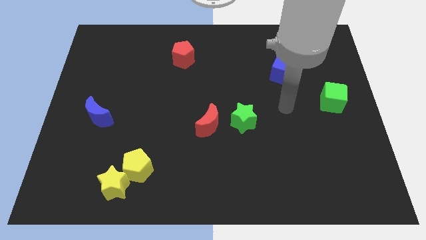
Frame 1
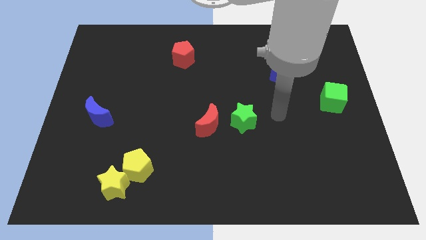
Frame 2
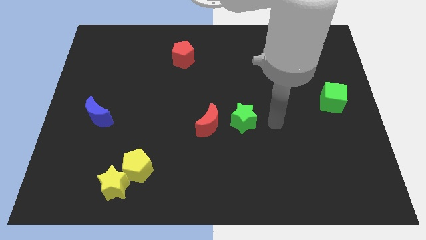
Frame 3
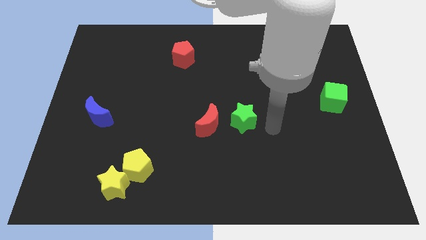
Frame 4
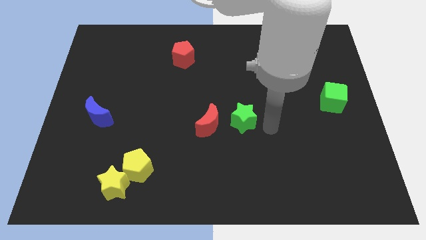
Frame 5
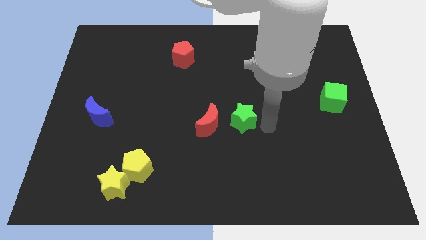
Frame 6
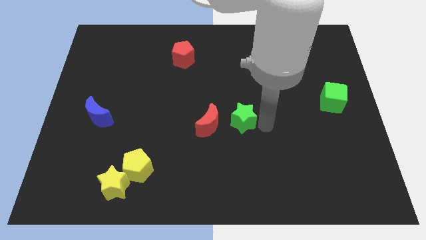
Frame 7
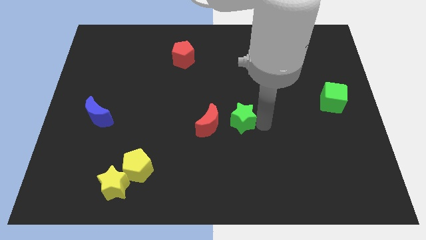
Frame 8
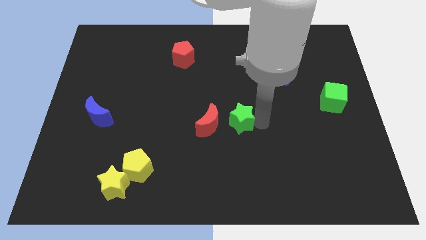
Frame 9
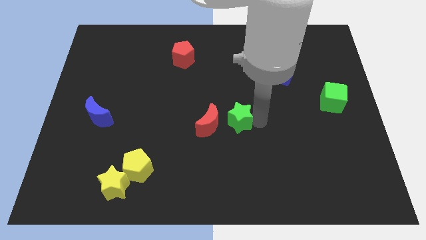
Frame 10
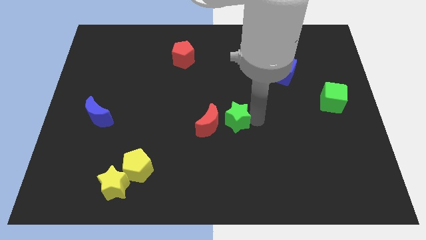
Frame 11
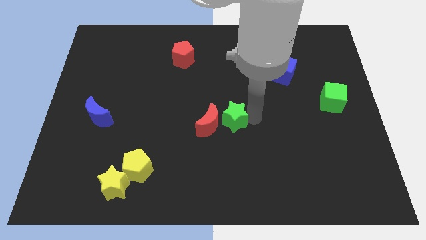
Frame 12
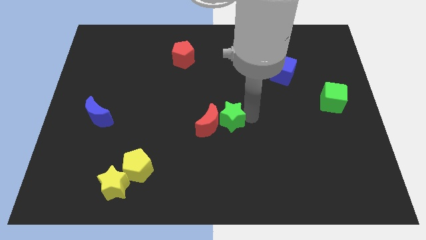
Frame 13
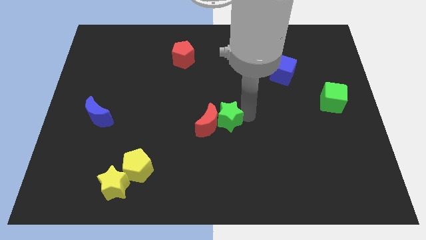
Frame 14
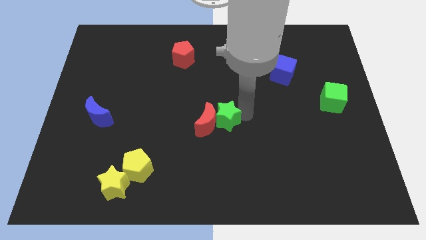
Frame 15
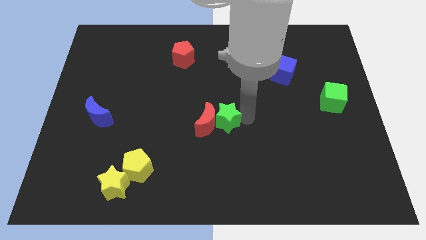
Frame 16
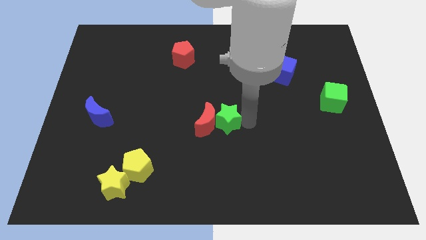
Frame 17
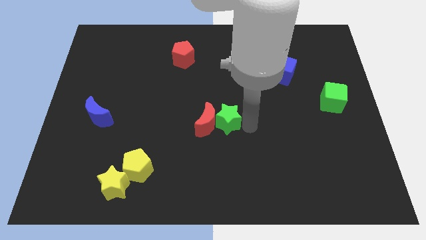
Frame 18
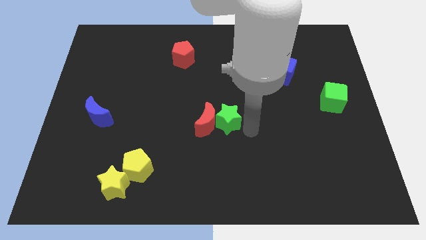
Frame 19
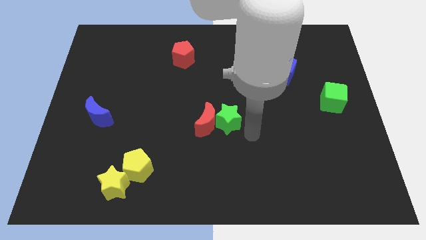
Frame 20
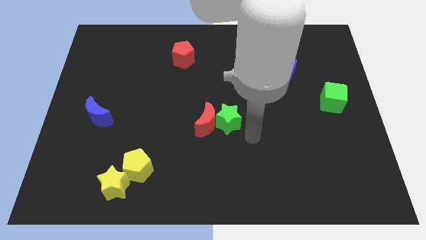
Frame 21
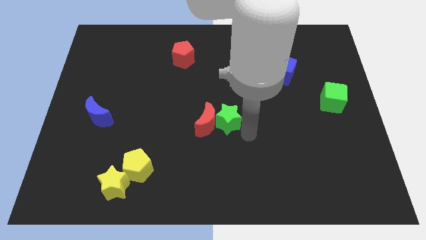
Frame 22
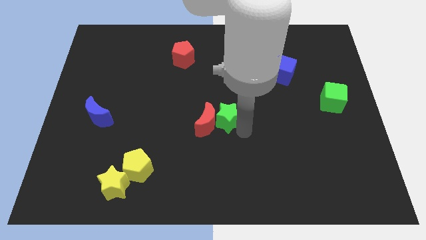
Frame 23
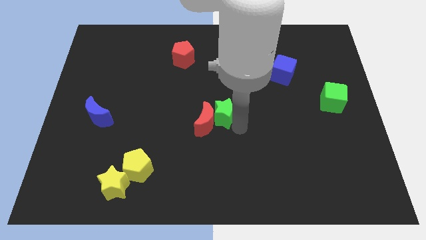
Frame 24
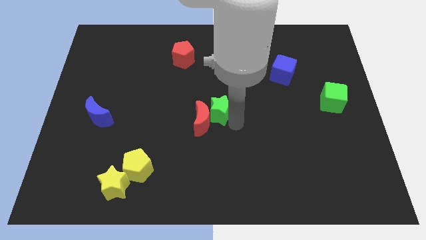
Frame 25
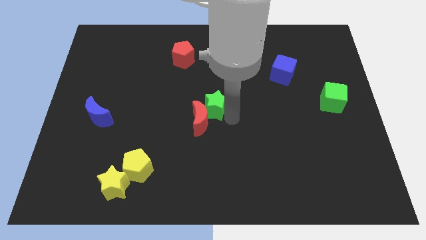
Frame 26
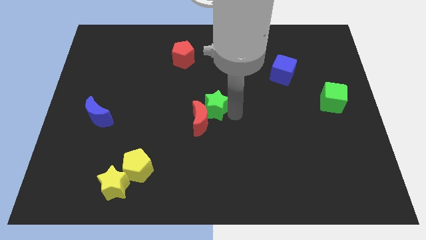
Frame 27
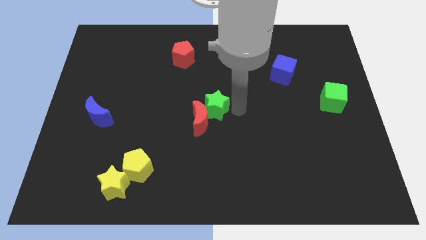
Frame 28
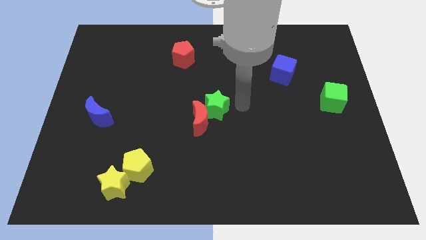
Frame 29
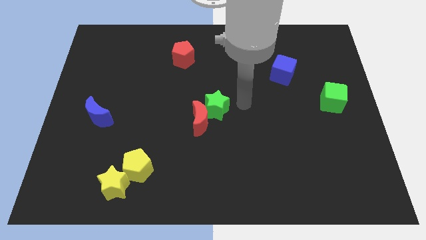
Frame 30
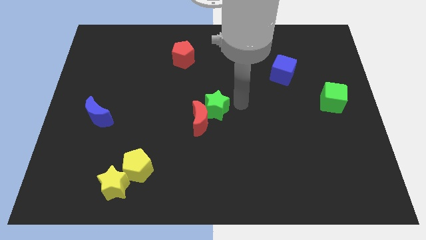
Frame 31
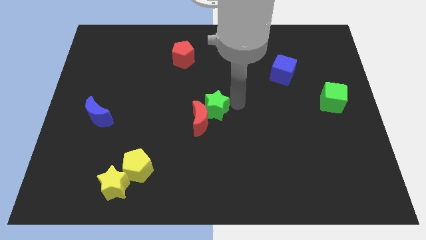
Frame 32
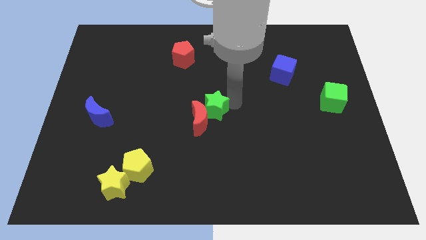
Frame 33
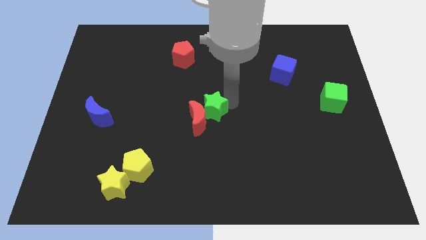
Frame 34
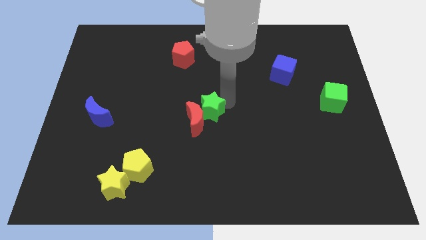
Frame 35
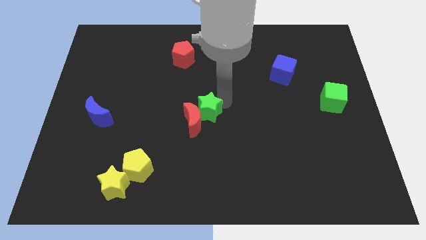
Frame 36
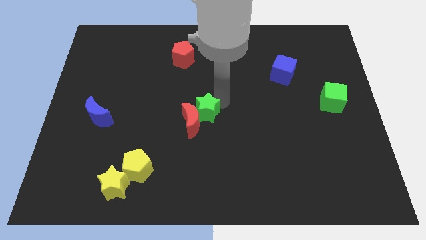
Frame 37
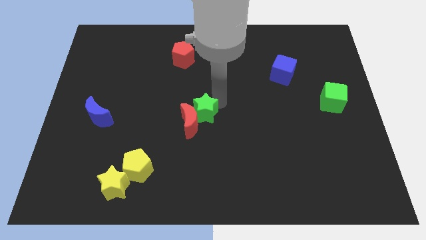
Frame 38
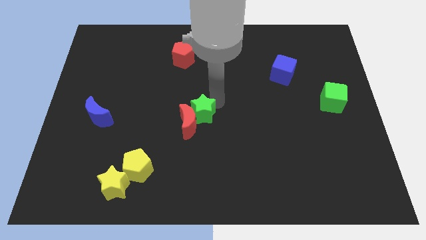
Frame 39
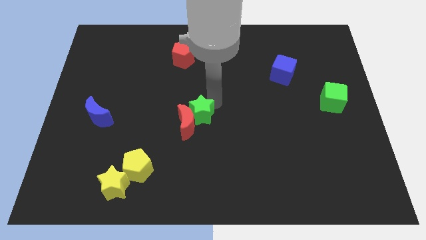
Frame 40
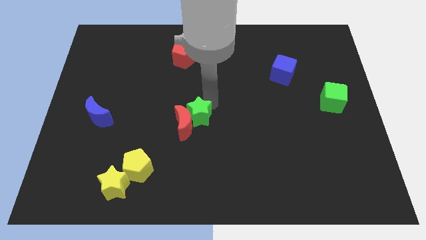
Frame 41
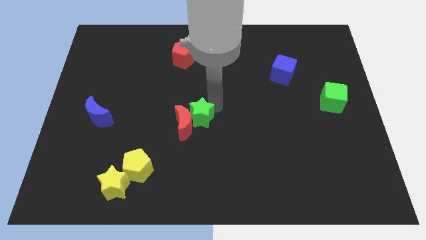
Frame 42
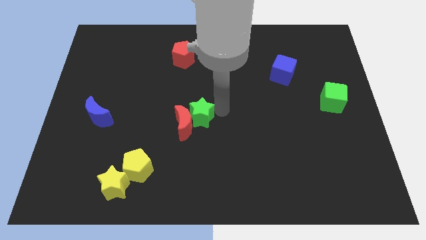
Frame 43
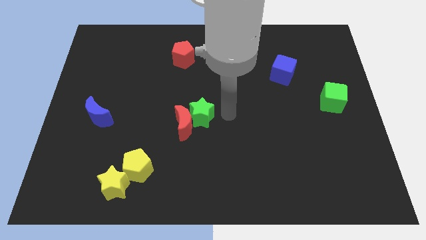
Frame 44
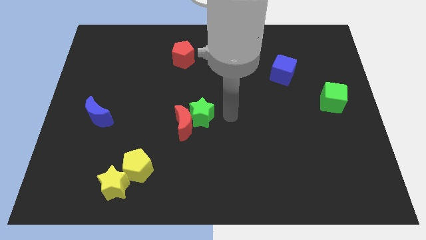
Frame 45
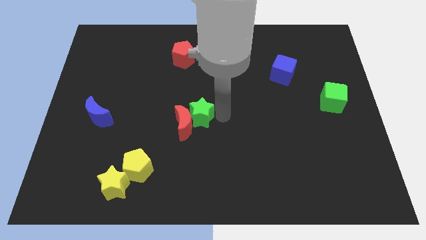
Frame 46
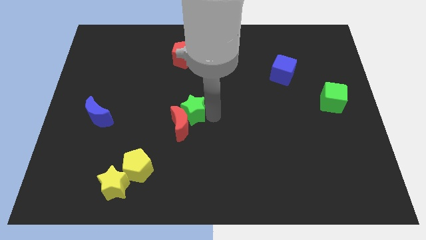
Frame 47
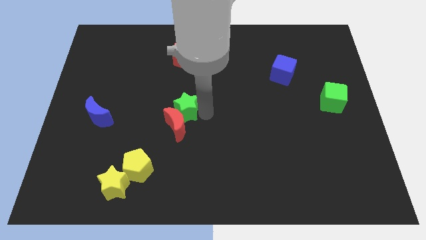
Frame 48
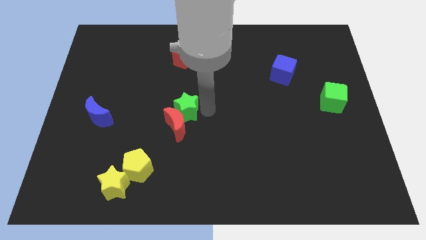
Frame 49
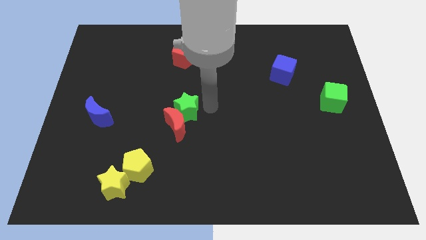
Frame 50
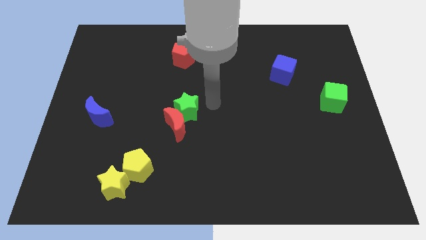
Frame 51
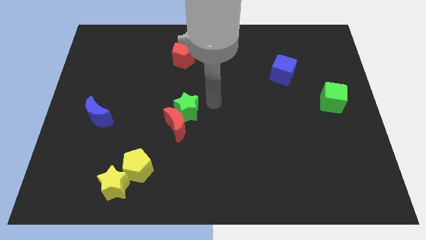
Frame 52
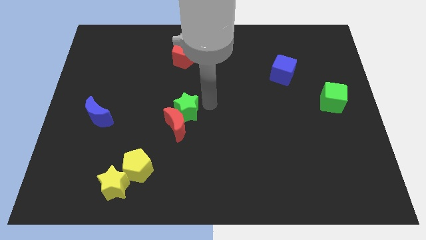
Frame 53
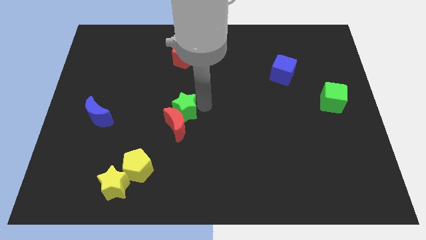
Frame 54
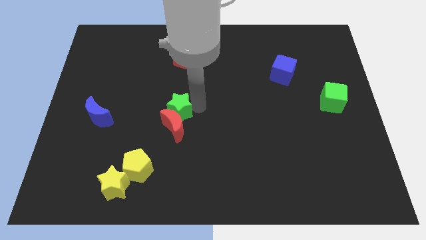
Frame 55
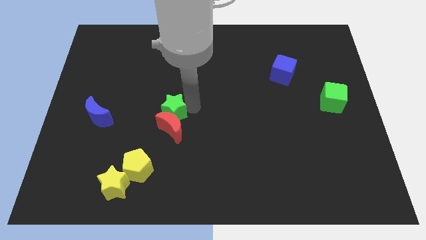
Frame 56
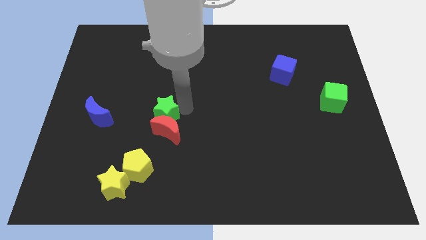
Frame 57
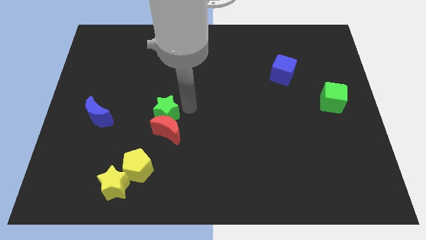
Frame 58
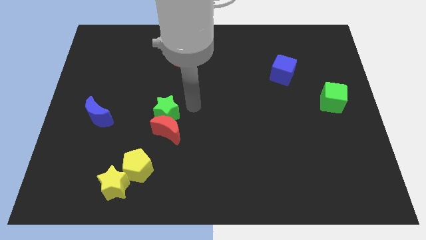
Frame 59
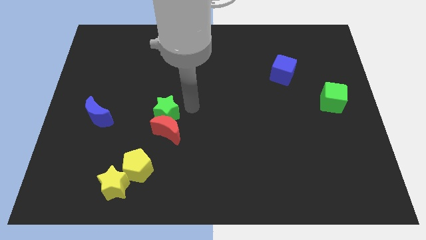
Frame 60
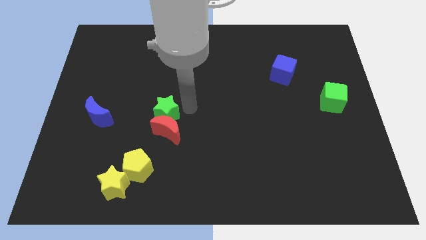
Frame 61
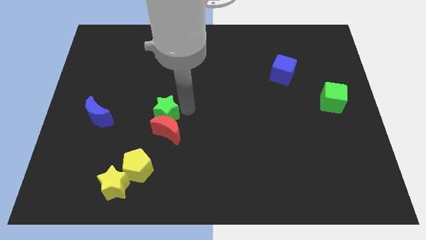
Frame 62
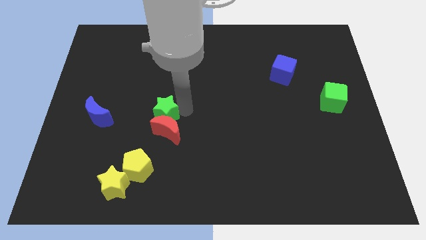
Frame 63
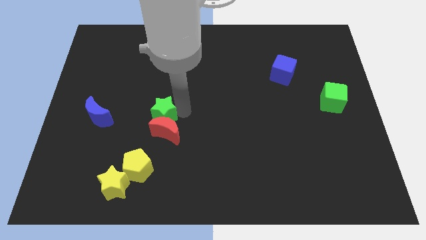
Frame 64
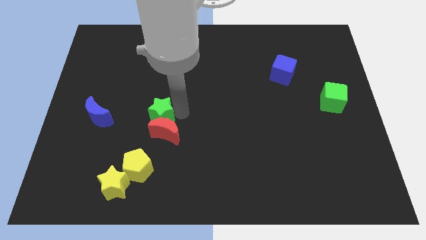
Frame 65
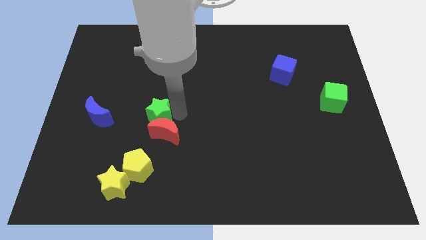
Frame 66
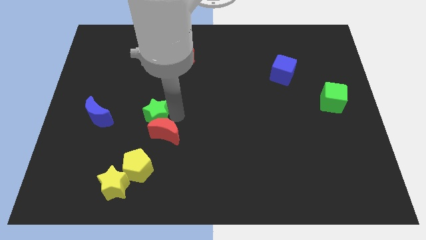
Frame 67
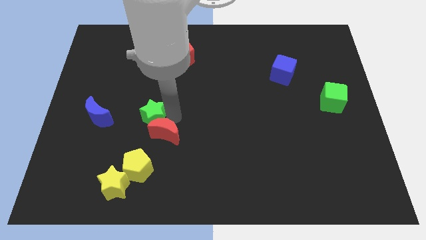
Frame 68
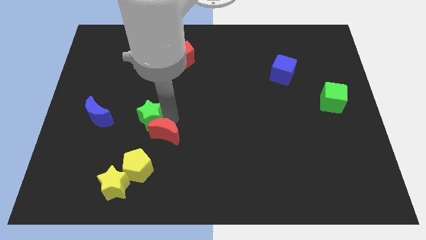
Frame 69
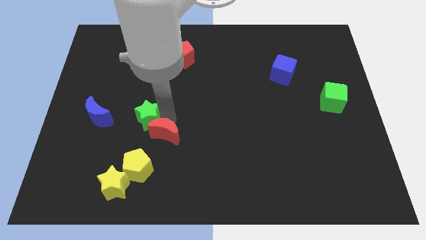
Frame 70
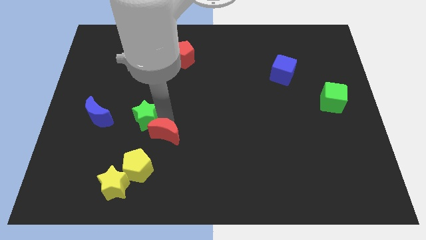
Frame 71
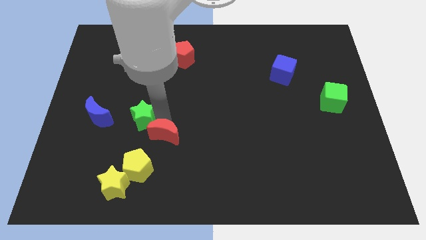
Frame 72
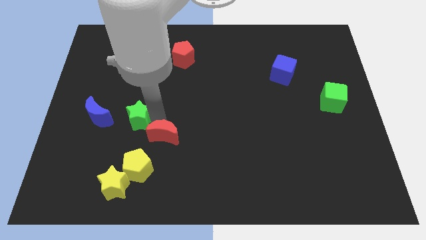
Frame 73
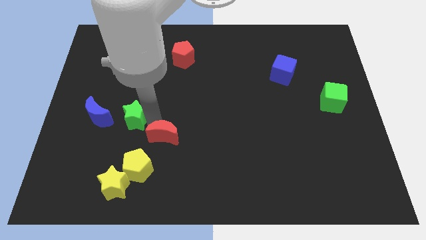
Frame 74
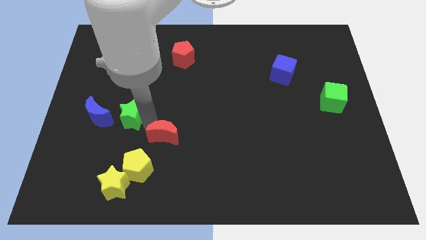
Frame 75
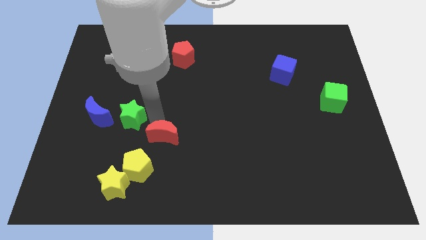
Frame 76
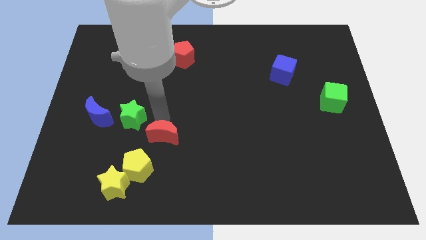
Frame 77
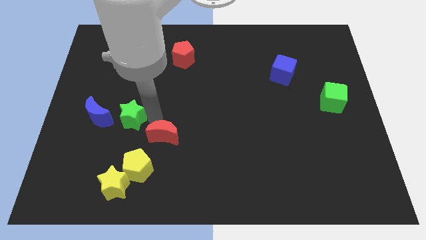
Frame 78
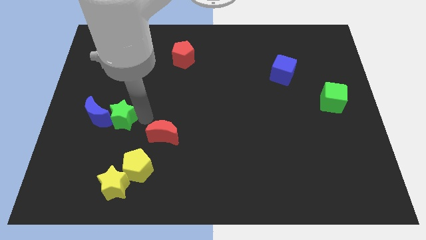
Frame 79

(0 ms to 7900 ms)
push the green star next to the blue moon
